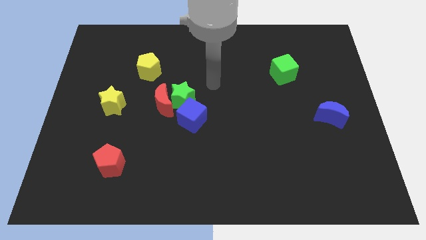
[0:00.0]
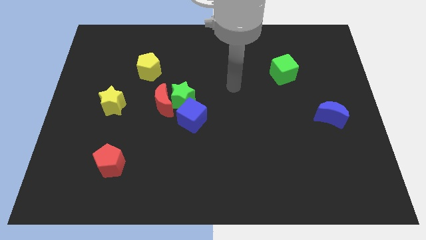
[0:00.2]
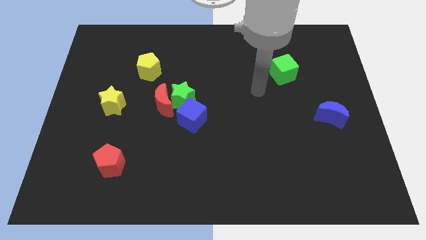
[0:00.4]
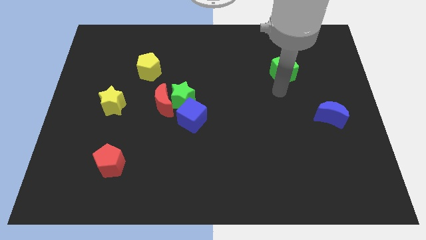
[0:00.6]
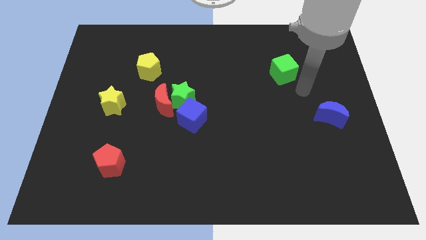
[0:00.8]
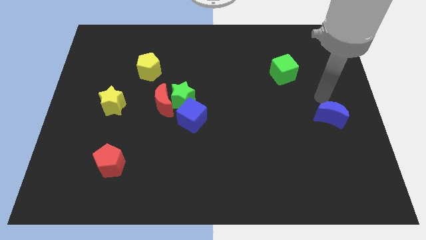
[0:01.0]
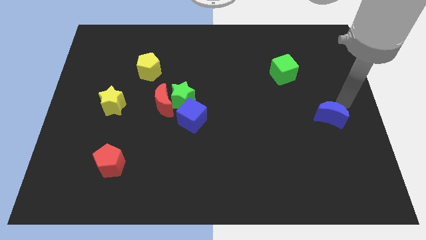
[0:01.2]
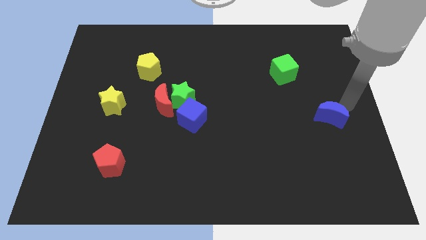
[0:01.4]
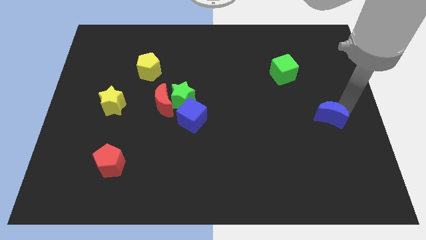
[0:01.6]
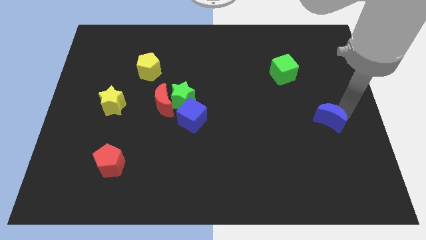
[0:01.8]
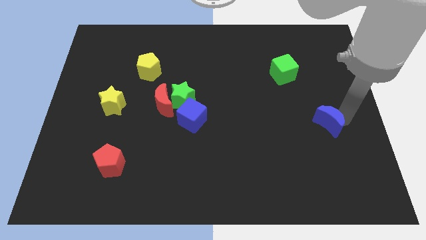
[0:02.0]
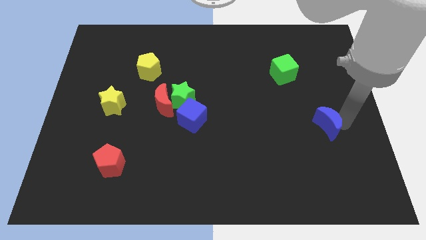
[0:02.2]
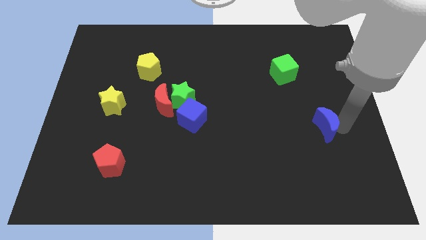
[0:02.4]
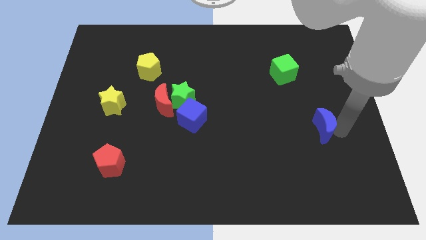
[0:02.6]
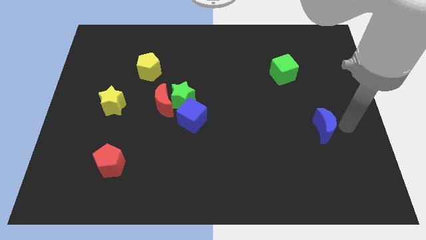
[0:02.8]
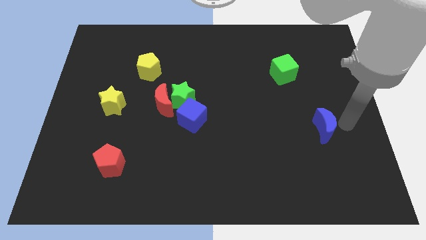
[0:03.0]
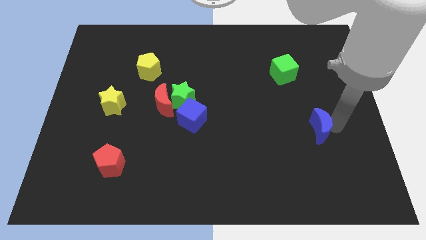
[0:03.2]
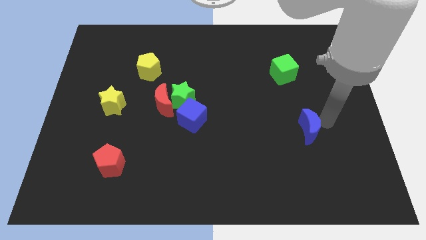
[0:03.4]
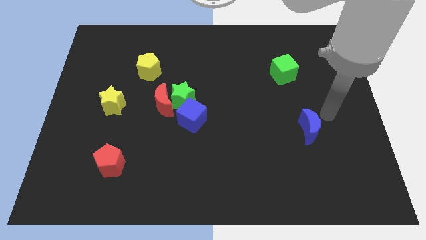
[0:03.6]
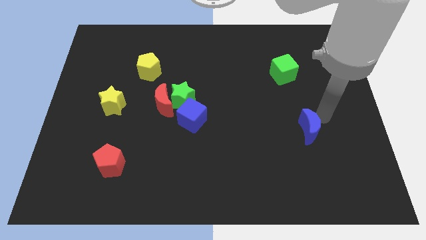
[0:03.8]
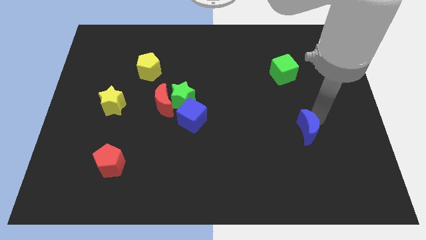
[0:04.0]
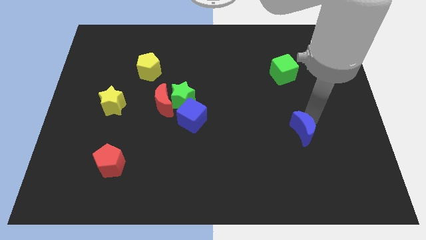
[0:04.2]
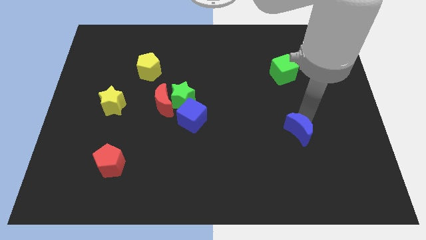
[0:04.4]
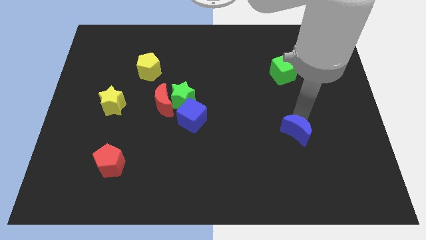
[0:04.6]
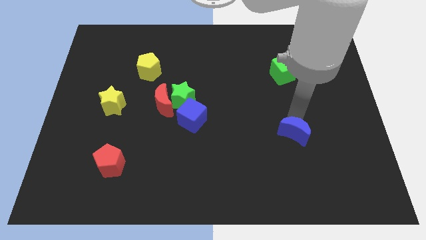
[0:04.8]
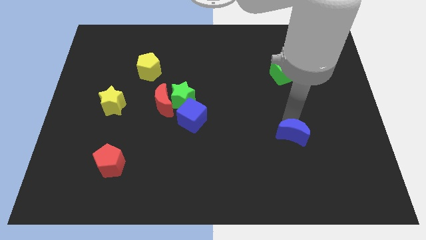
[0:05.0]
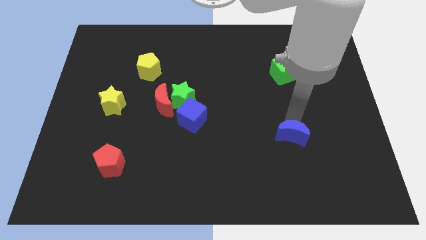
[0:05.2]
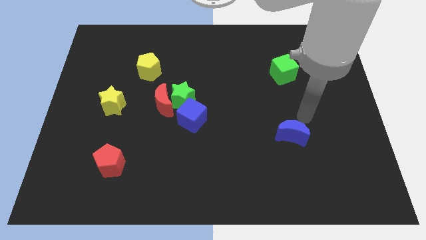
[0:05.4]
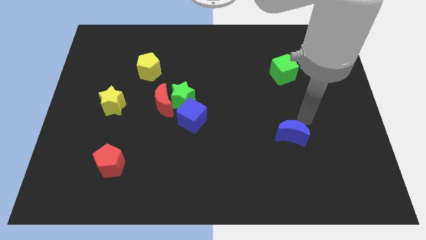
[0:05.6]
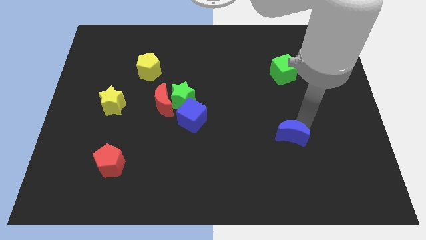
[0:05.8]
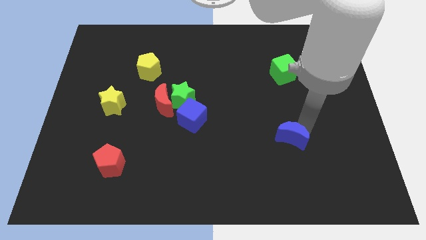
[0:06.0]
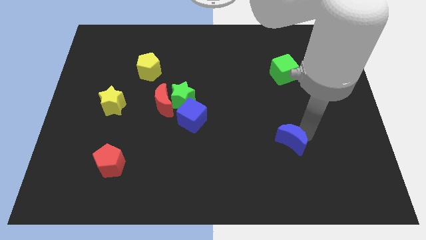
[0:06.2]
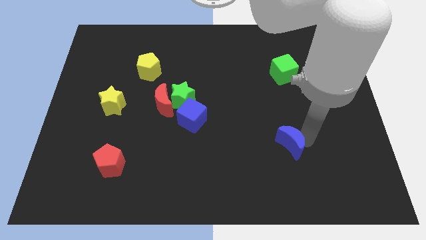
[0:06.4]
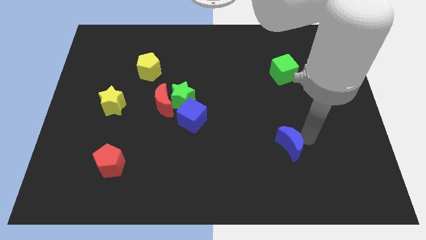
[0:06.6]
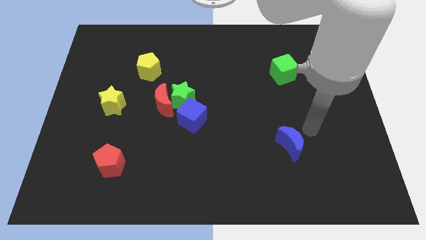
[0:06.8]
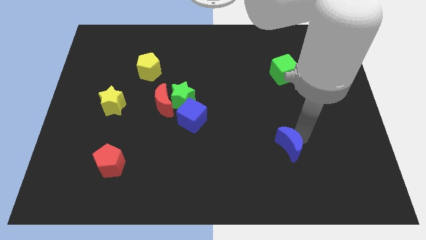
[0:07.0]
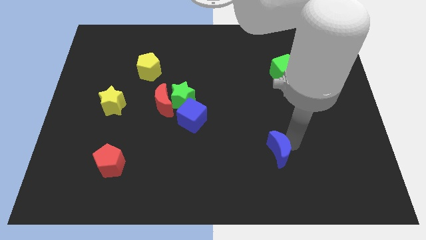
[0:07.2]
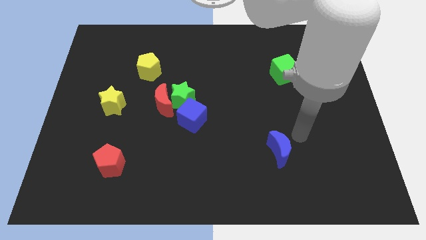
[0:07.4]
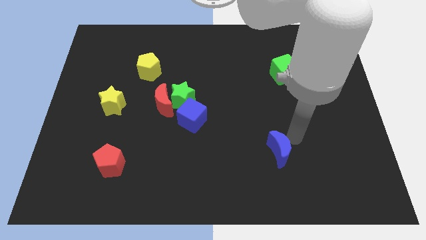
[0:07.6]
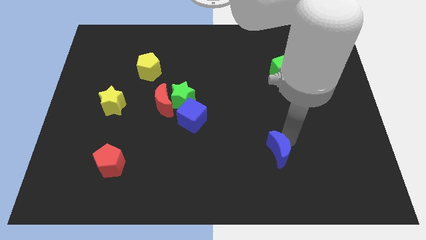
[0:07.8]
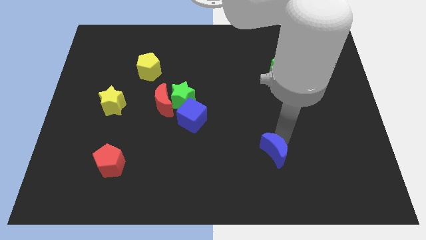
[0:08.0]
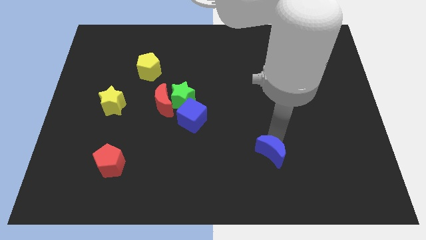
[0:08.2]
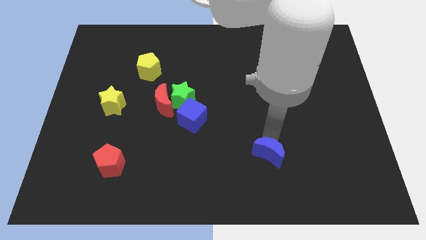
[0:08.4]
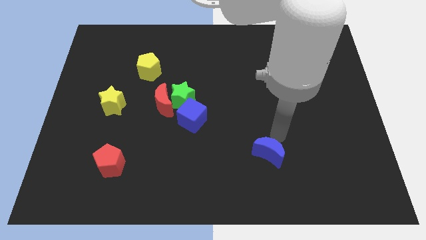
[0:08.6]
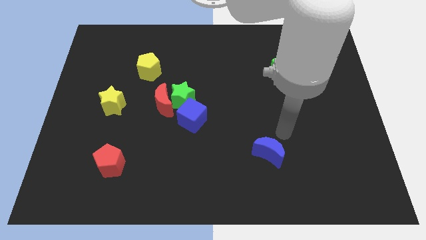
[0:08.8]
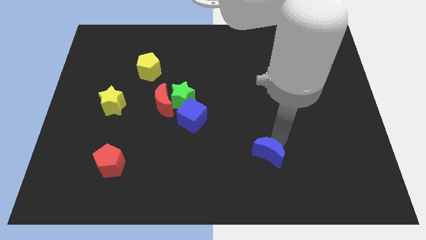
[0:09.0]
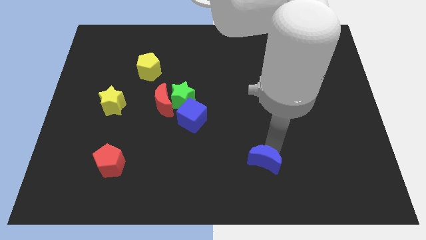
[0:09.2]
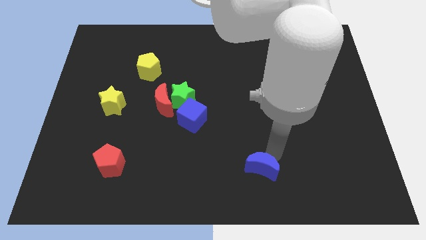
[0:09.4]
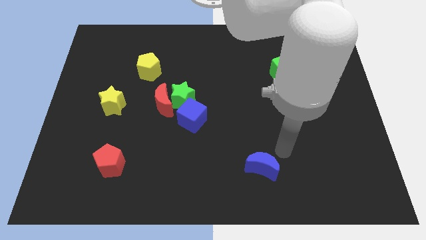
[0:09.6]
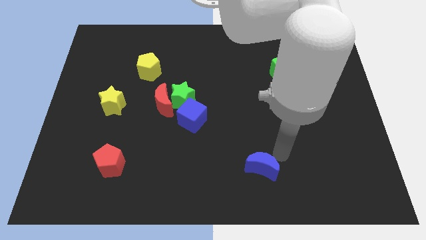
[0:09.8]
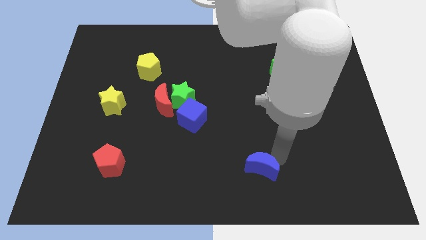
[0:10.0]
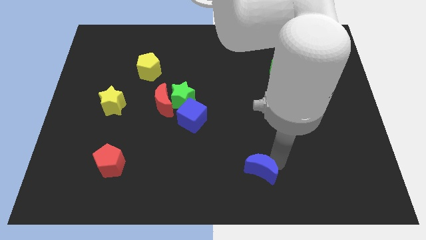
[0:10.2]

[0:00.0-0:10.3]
put the blue moon to the bottom side

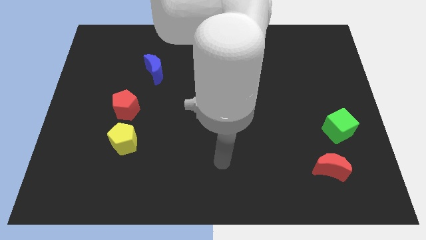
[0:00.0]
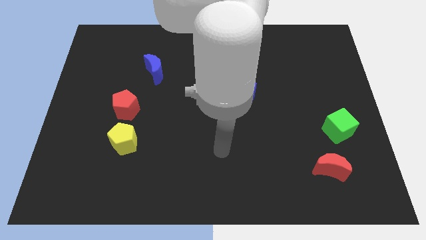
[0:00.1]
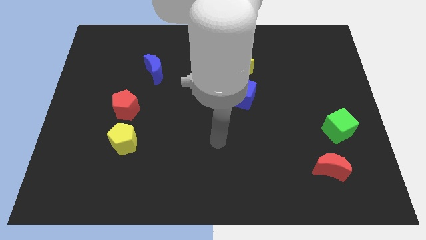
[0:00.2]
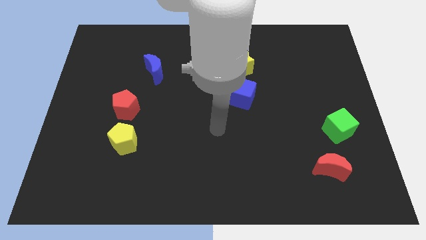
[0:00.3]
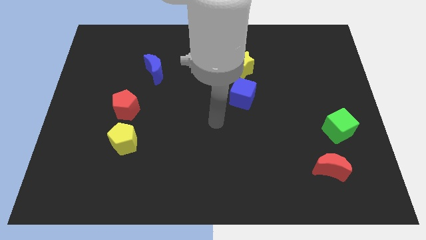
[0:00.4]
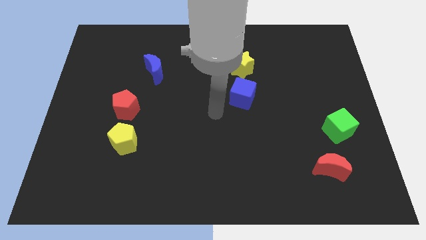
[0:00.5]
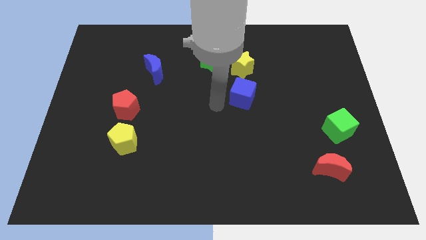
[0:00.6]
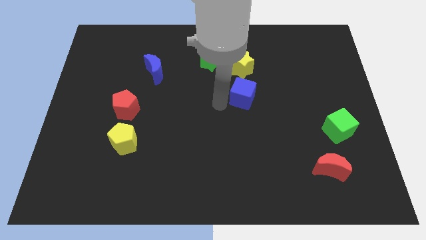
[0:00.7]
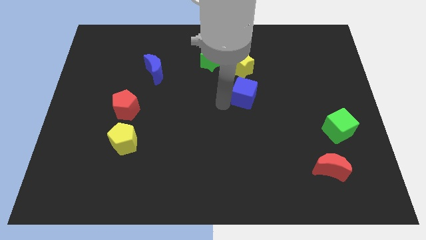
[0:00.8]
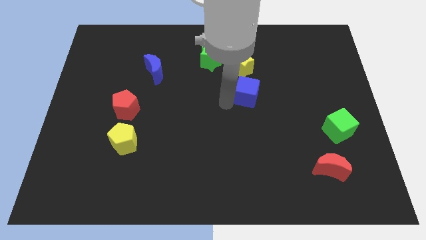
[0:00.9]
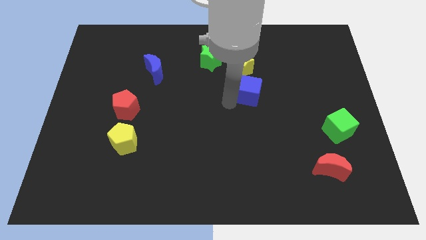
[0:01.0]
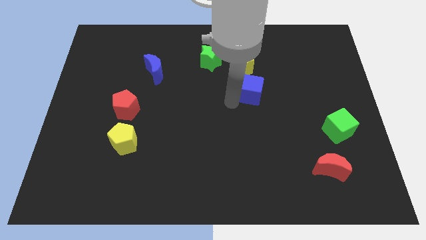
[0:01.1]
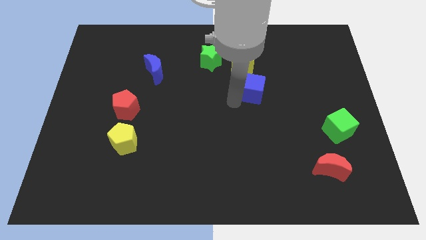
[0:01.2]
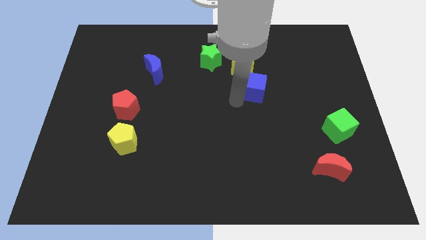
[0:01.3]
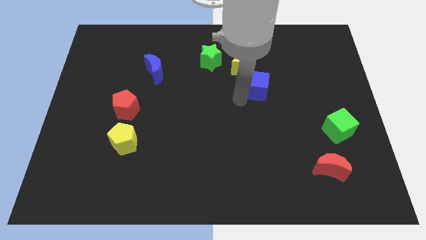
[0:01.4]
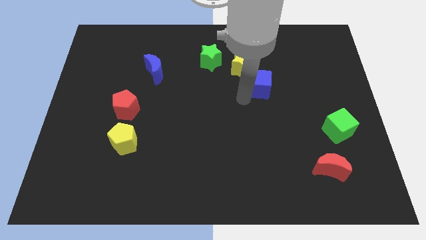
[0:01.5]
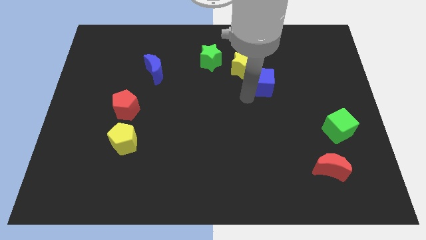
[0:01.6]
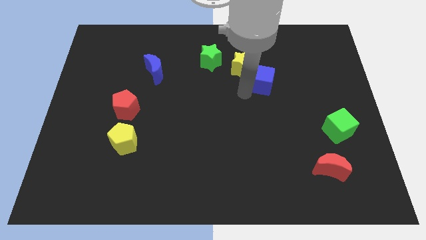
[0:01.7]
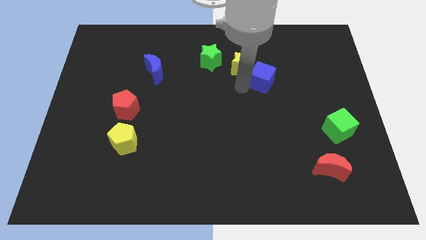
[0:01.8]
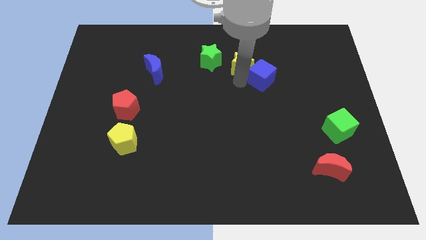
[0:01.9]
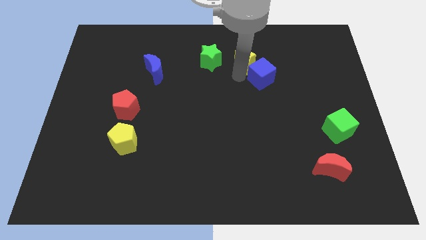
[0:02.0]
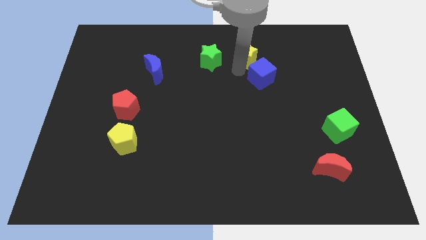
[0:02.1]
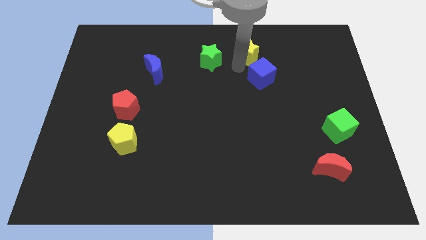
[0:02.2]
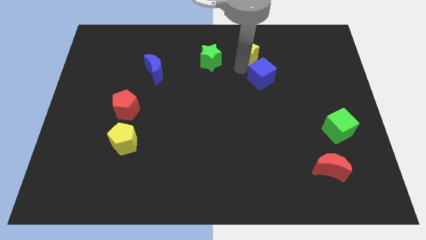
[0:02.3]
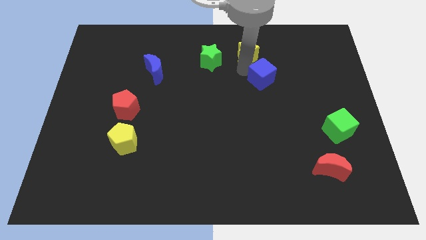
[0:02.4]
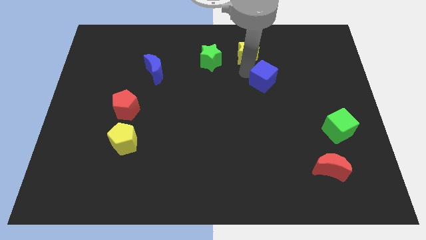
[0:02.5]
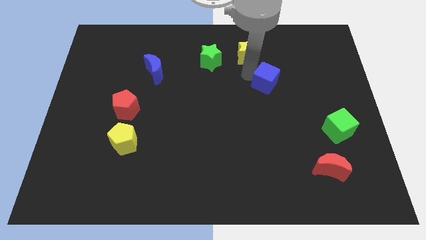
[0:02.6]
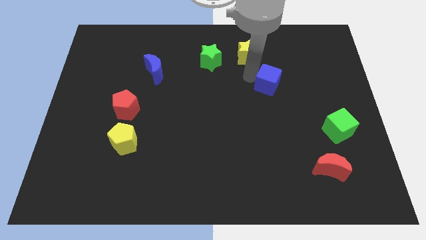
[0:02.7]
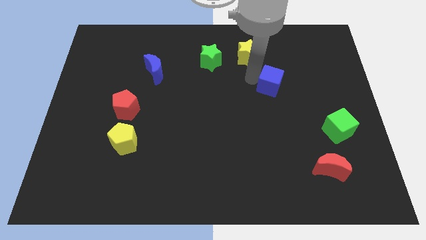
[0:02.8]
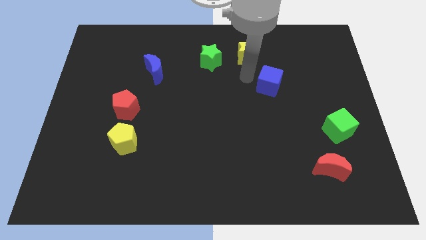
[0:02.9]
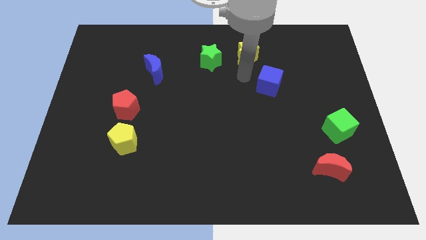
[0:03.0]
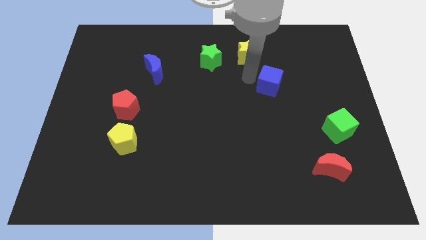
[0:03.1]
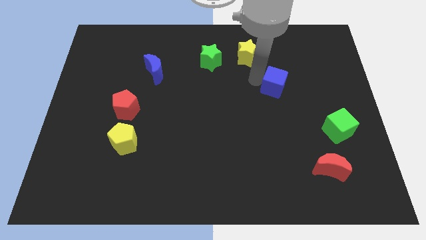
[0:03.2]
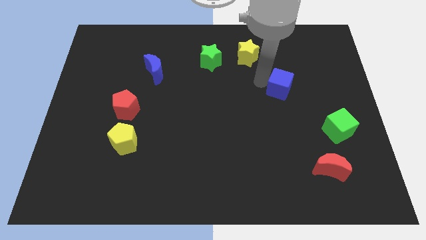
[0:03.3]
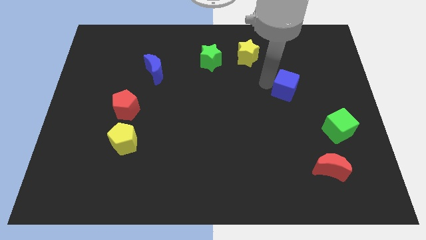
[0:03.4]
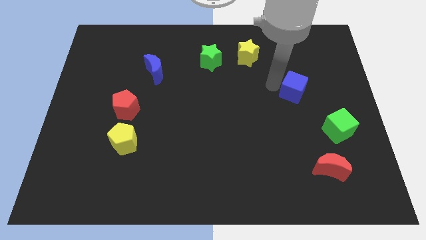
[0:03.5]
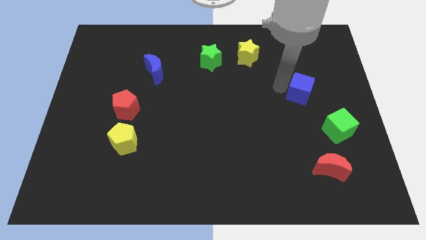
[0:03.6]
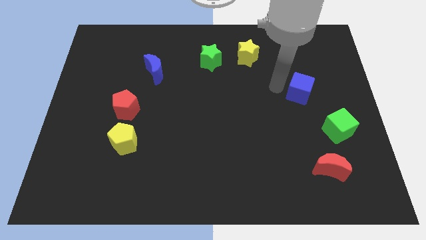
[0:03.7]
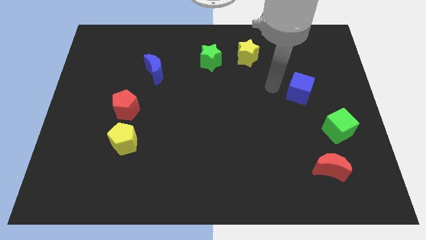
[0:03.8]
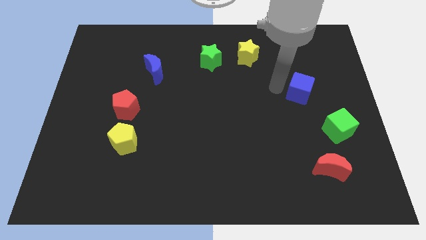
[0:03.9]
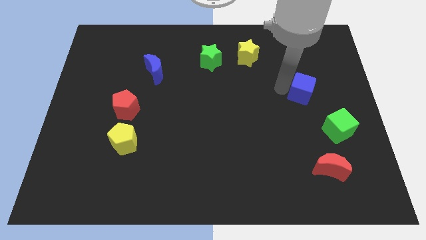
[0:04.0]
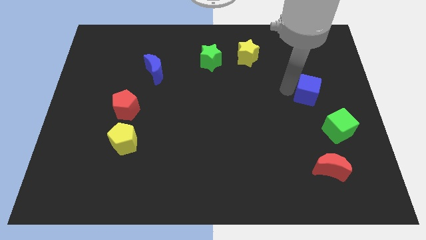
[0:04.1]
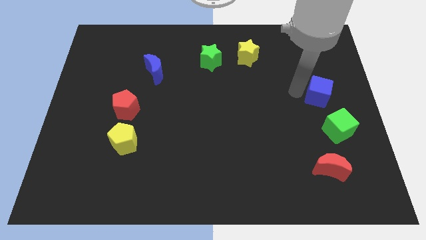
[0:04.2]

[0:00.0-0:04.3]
move the blue cube to the right side
